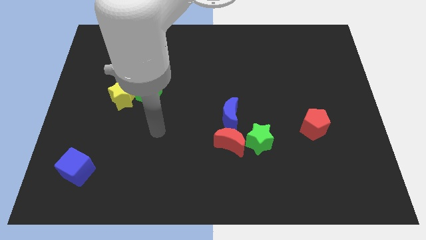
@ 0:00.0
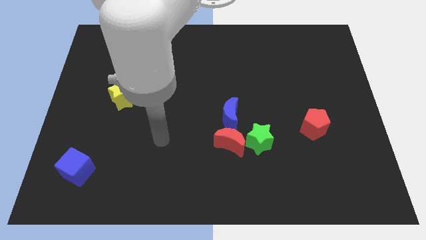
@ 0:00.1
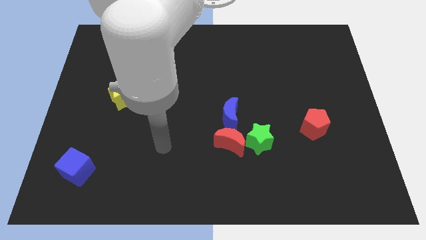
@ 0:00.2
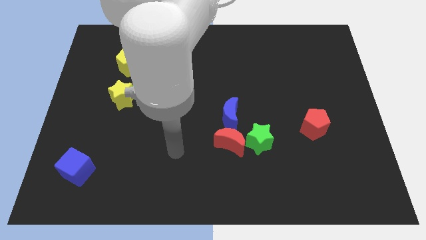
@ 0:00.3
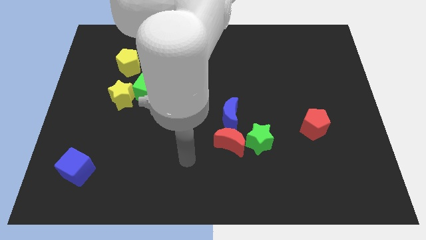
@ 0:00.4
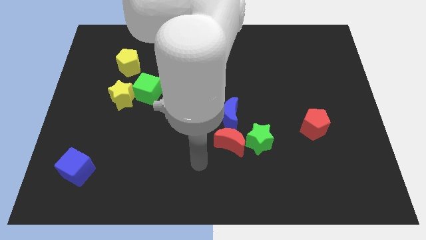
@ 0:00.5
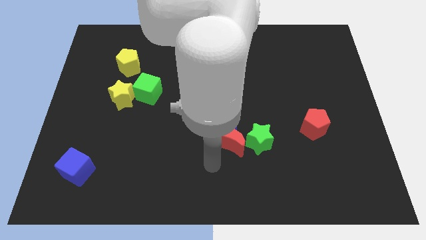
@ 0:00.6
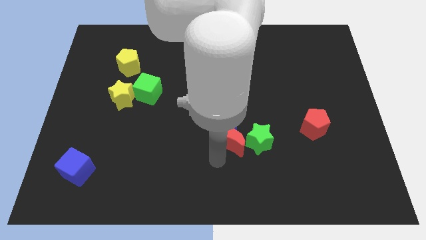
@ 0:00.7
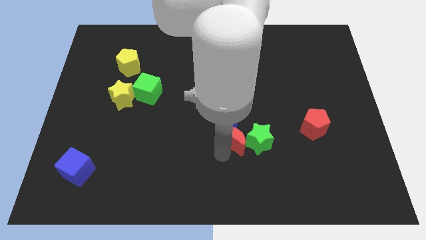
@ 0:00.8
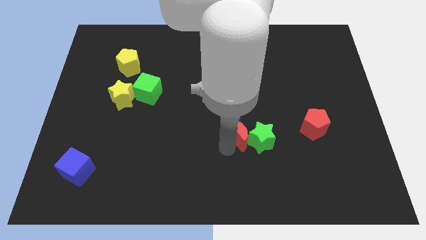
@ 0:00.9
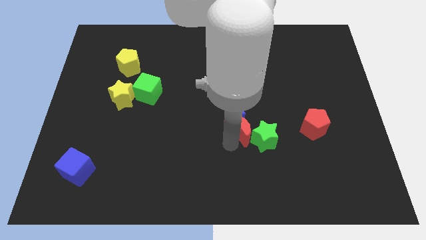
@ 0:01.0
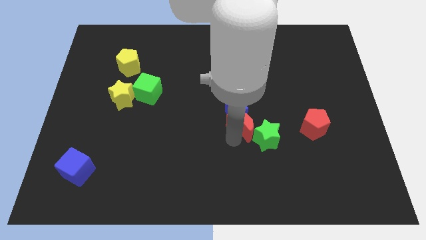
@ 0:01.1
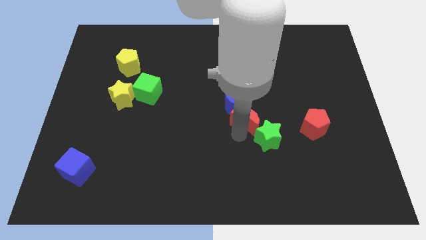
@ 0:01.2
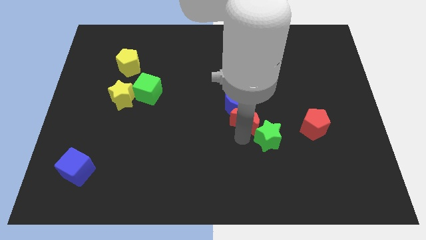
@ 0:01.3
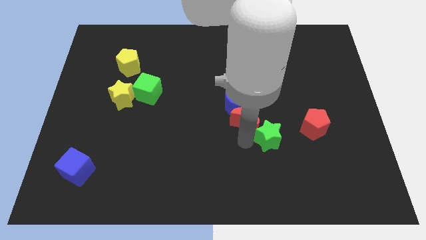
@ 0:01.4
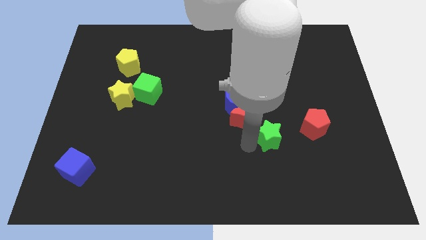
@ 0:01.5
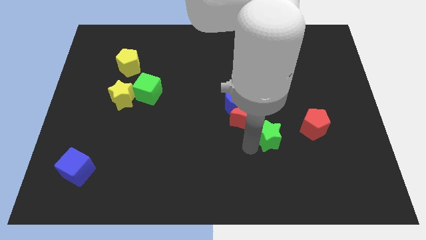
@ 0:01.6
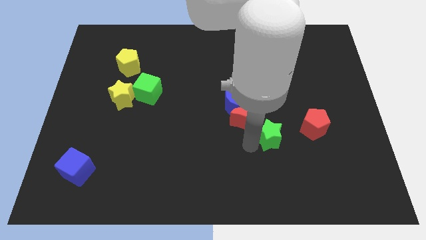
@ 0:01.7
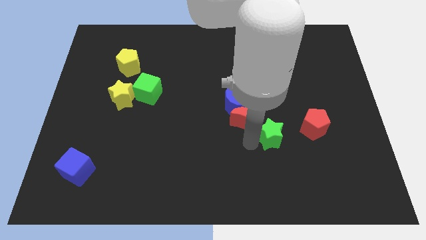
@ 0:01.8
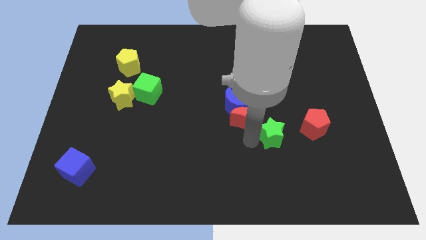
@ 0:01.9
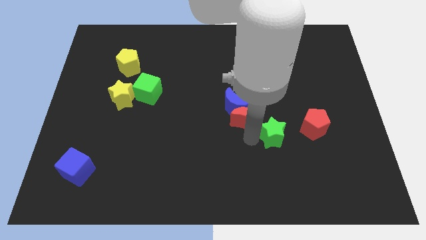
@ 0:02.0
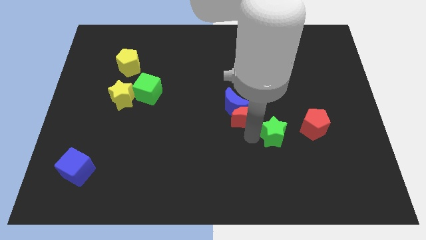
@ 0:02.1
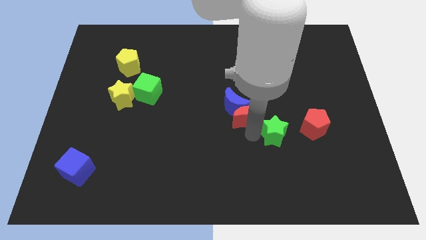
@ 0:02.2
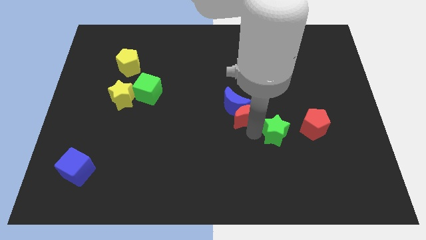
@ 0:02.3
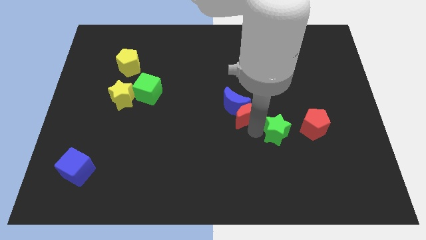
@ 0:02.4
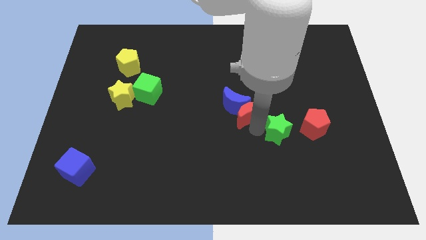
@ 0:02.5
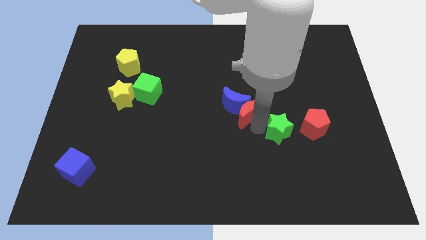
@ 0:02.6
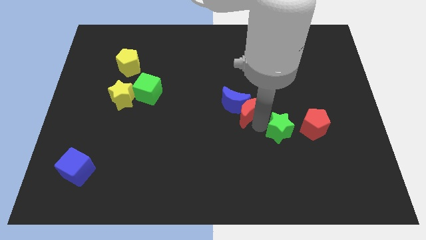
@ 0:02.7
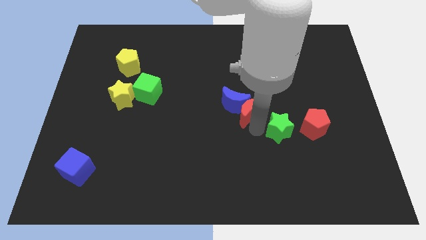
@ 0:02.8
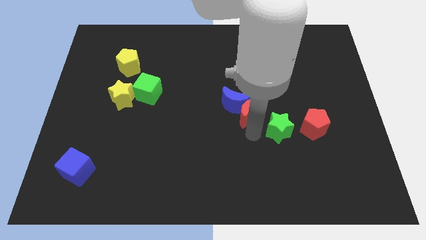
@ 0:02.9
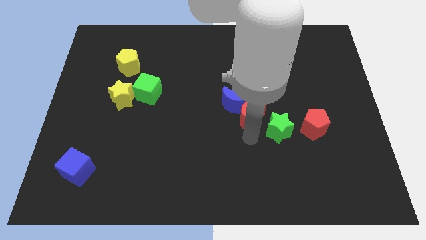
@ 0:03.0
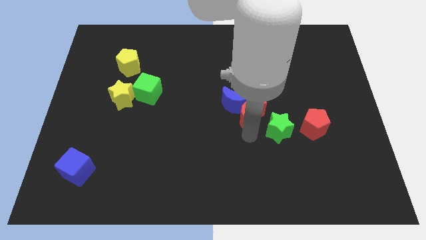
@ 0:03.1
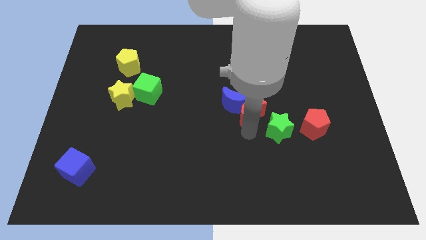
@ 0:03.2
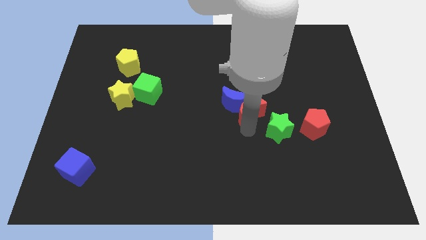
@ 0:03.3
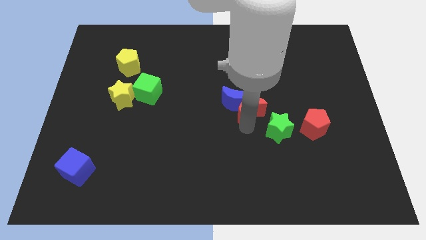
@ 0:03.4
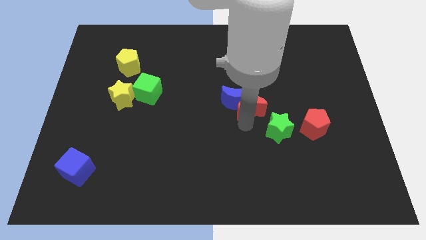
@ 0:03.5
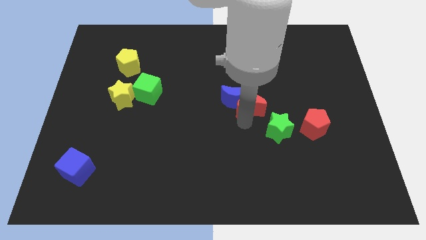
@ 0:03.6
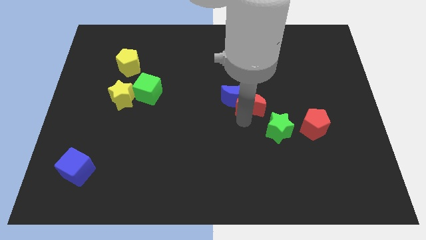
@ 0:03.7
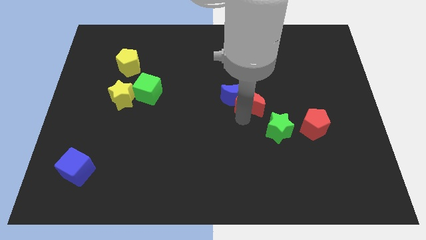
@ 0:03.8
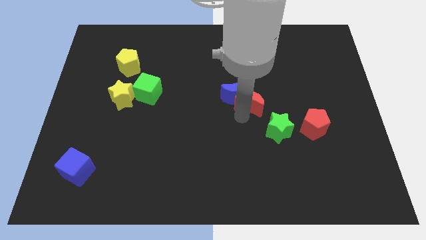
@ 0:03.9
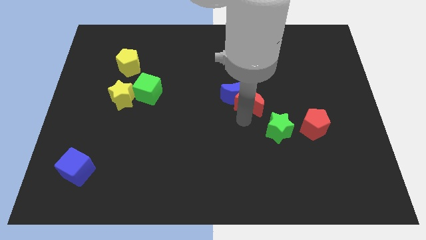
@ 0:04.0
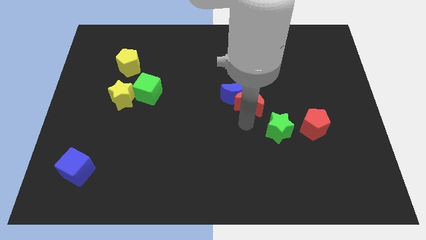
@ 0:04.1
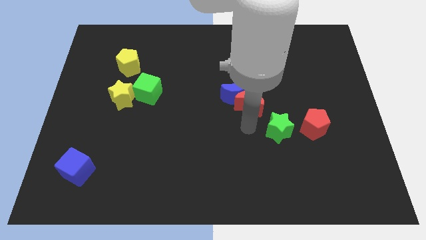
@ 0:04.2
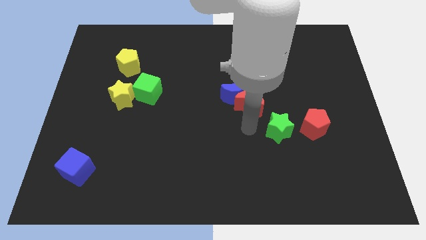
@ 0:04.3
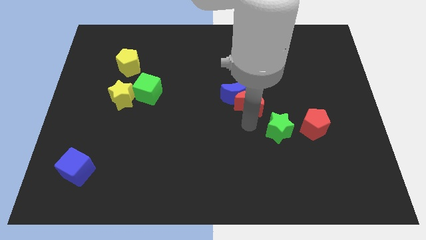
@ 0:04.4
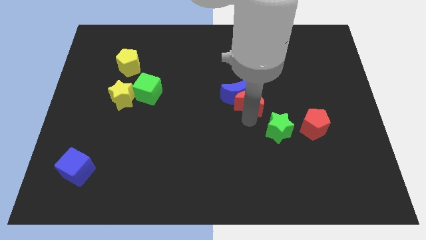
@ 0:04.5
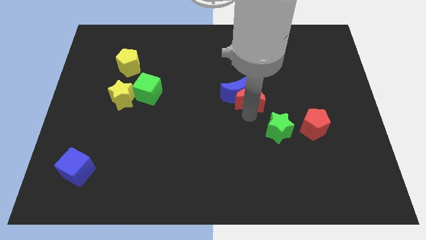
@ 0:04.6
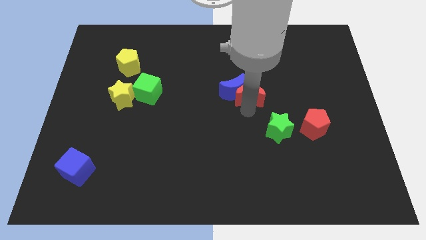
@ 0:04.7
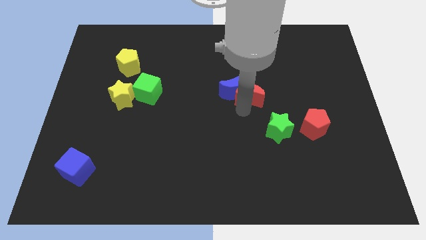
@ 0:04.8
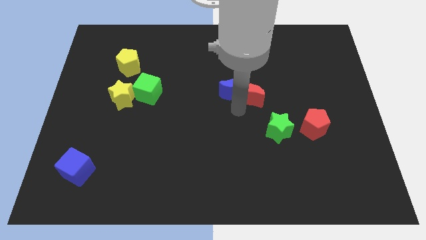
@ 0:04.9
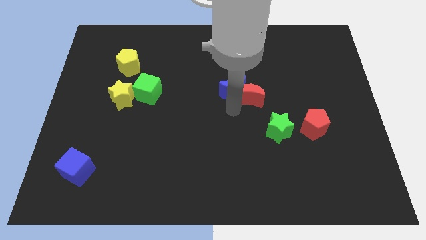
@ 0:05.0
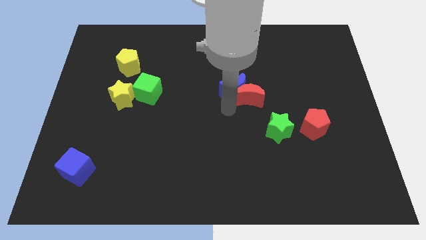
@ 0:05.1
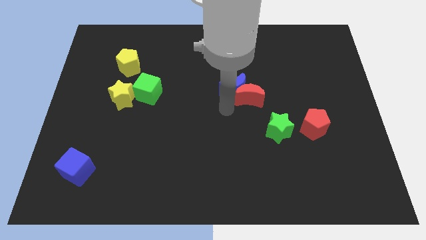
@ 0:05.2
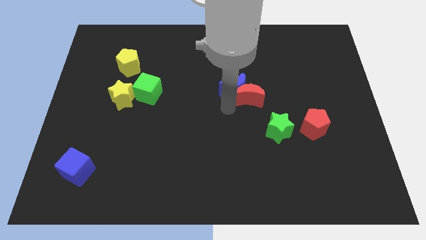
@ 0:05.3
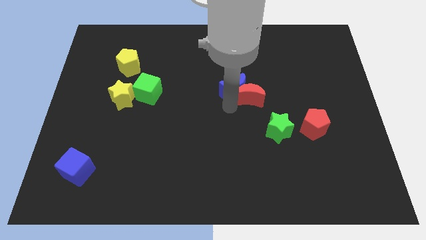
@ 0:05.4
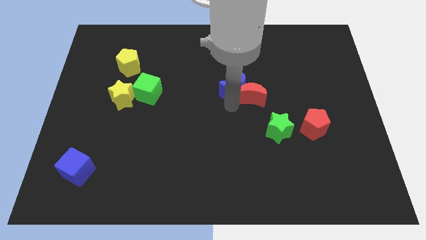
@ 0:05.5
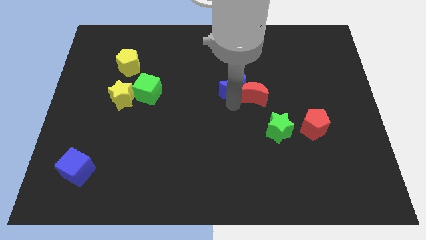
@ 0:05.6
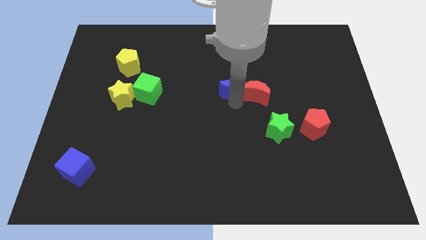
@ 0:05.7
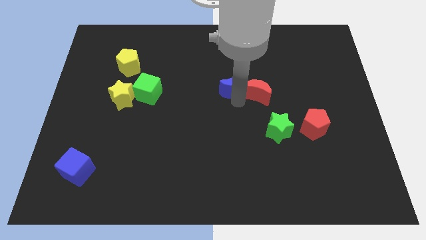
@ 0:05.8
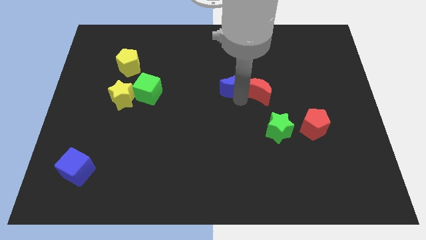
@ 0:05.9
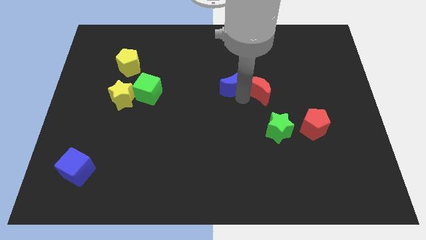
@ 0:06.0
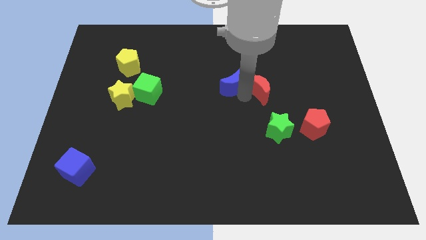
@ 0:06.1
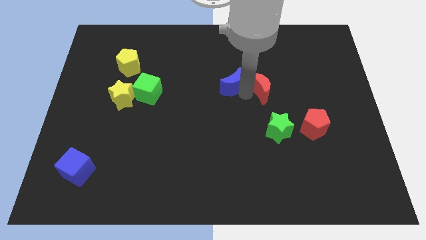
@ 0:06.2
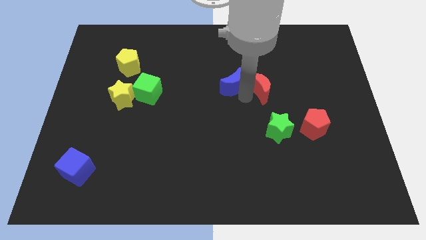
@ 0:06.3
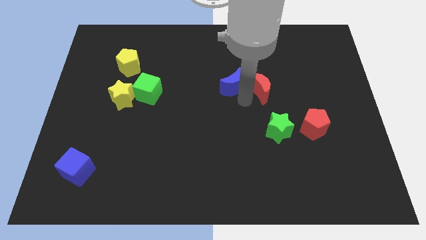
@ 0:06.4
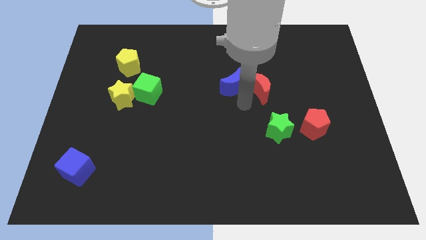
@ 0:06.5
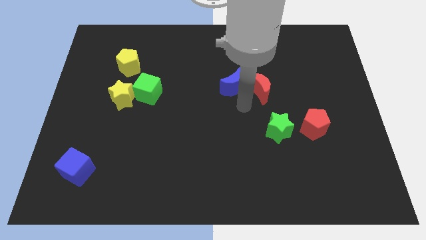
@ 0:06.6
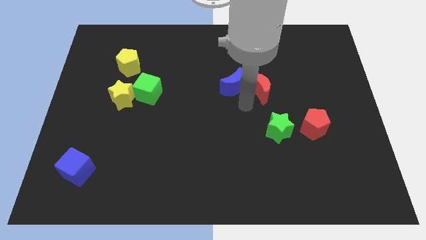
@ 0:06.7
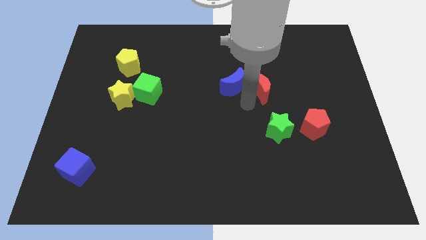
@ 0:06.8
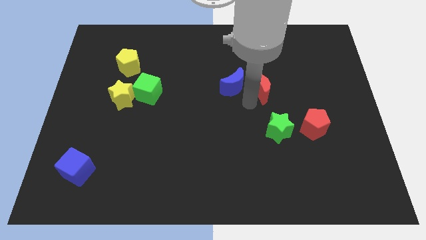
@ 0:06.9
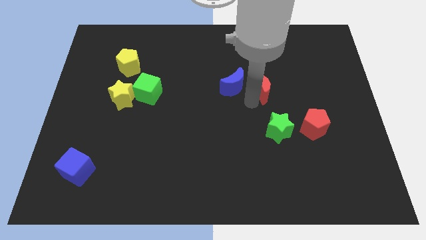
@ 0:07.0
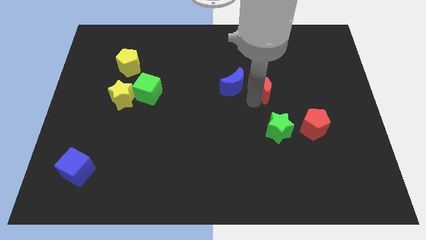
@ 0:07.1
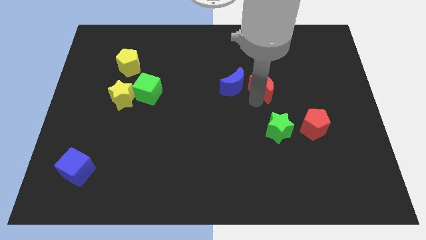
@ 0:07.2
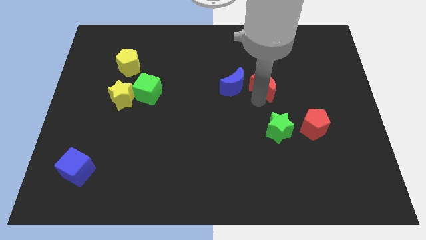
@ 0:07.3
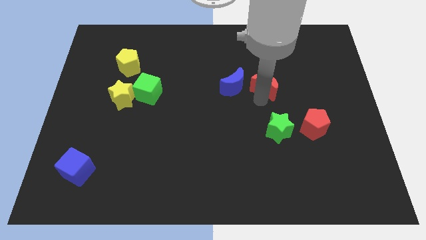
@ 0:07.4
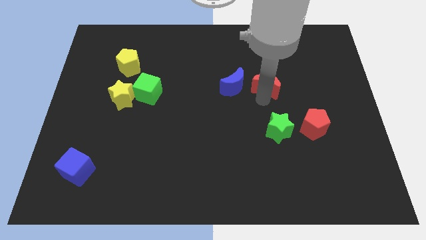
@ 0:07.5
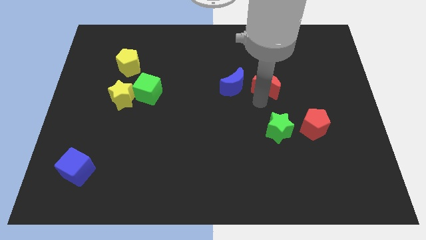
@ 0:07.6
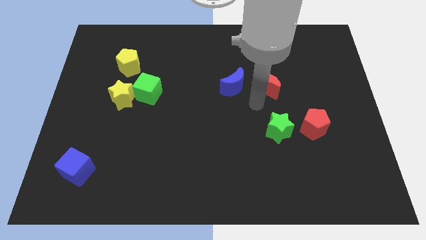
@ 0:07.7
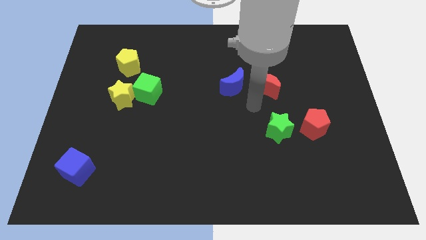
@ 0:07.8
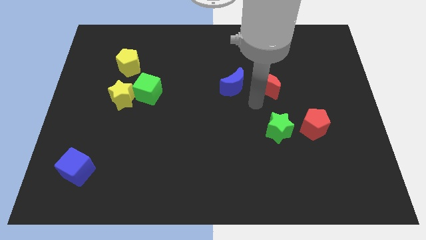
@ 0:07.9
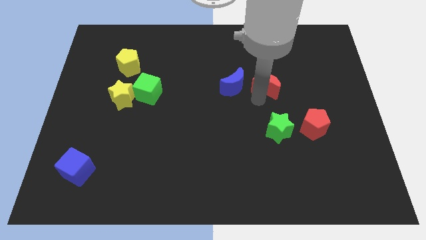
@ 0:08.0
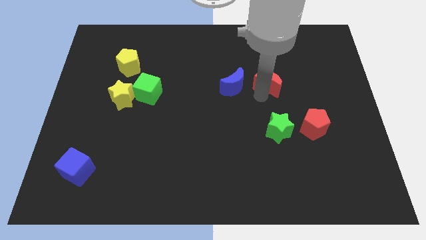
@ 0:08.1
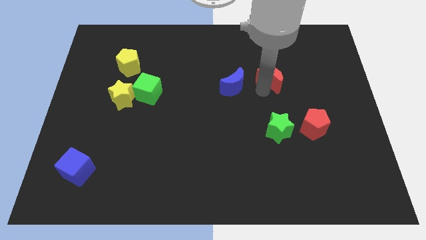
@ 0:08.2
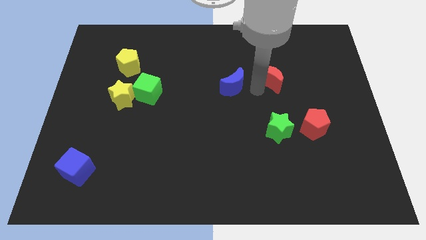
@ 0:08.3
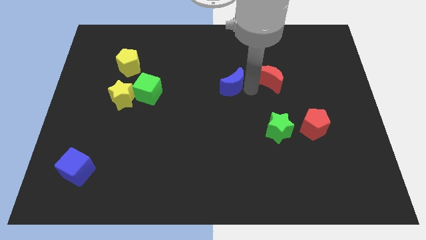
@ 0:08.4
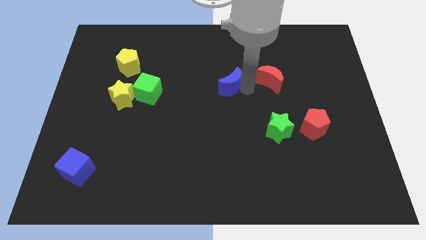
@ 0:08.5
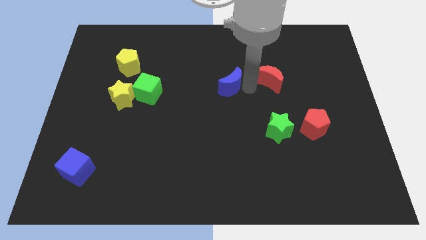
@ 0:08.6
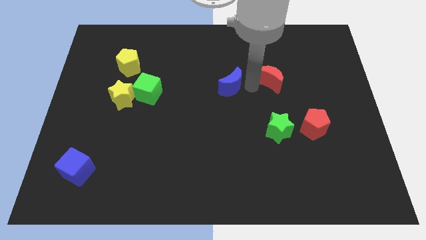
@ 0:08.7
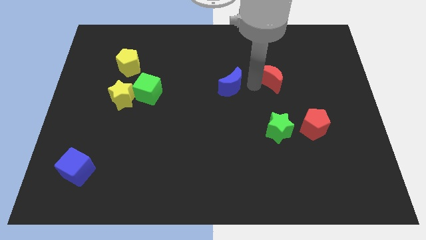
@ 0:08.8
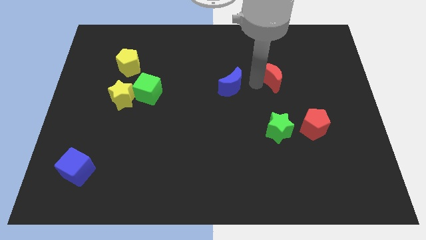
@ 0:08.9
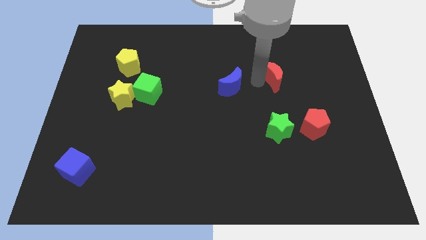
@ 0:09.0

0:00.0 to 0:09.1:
slide the red moon diagonally up and to the right
